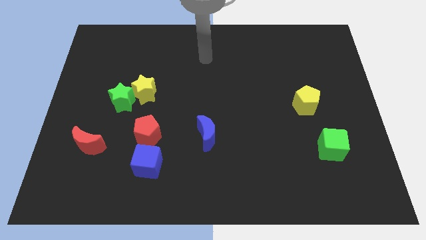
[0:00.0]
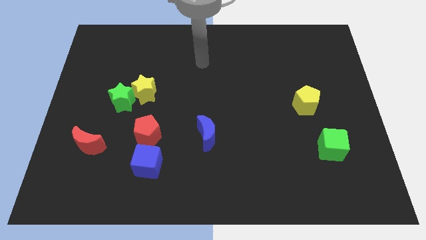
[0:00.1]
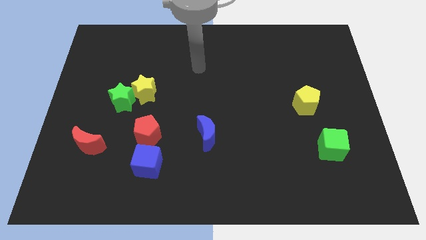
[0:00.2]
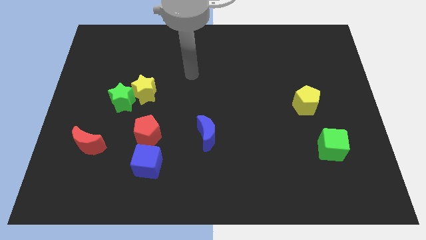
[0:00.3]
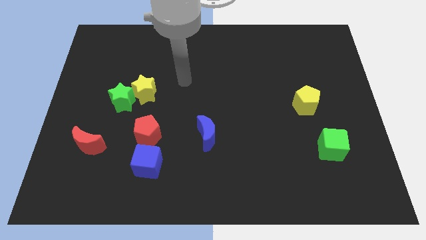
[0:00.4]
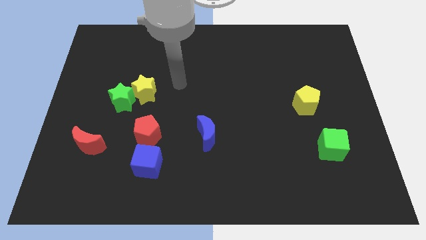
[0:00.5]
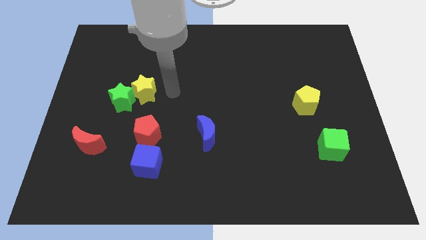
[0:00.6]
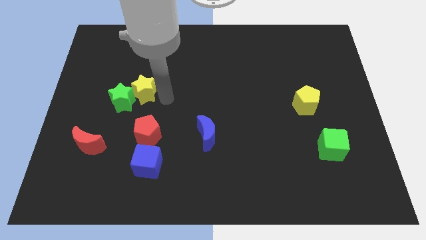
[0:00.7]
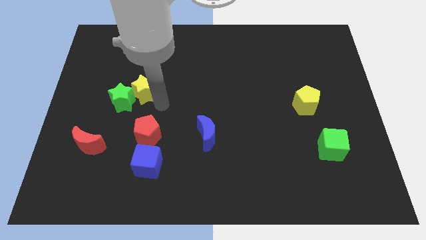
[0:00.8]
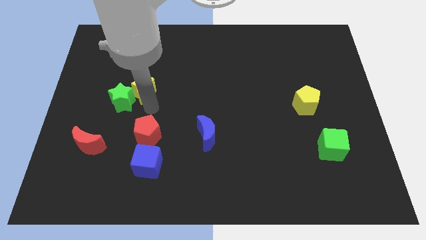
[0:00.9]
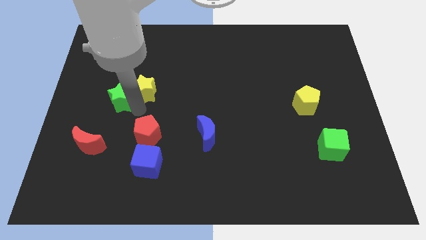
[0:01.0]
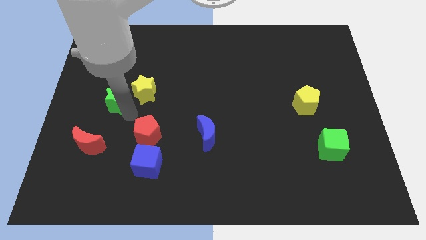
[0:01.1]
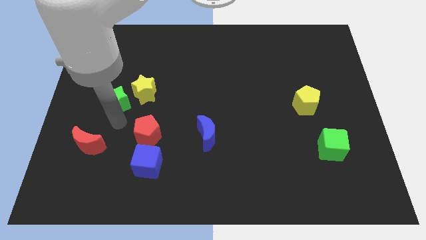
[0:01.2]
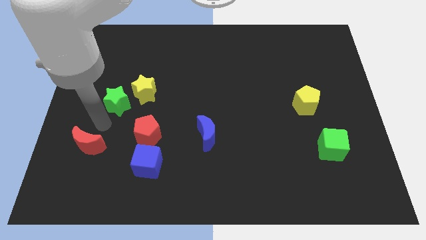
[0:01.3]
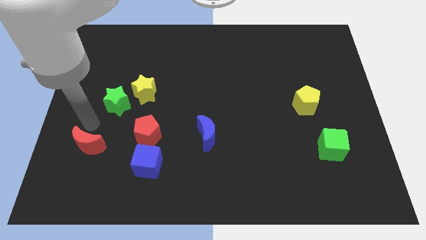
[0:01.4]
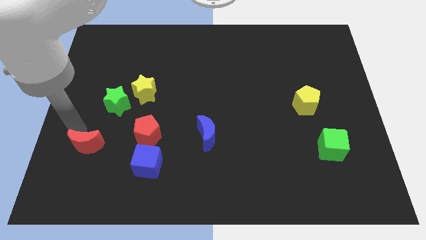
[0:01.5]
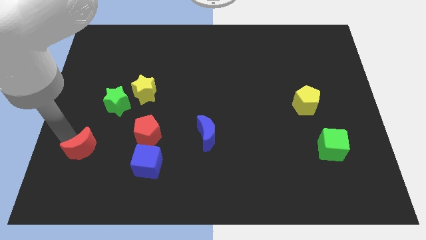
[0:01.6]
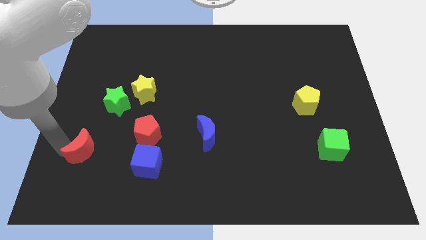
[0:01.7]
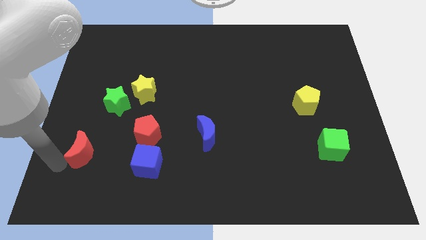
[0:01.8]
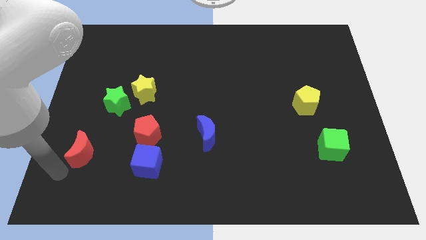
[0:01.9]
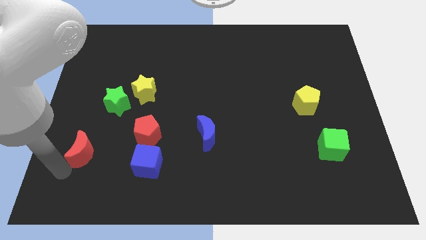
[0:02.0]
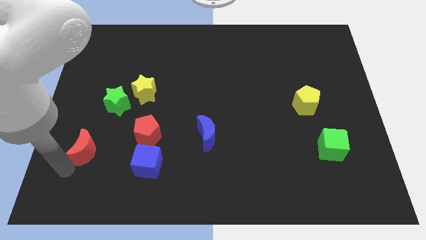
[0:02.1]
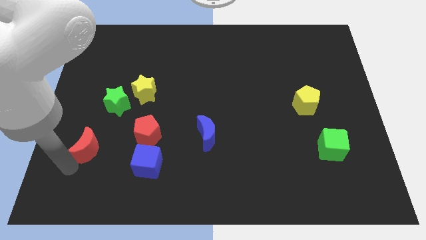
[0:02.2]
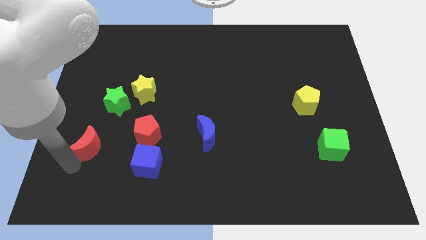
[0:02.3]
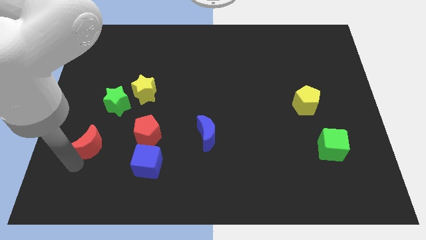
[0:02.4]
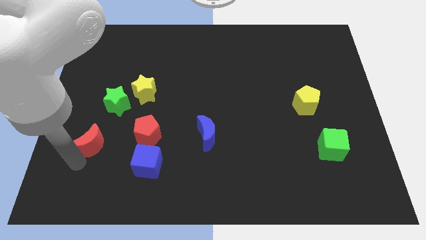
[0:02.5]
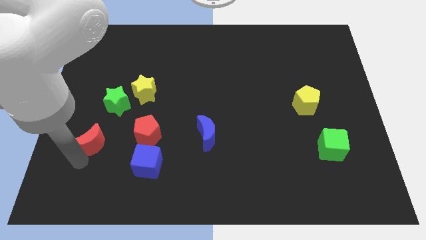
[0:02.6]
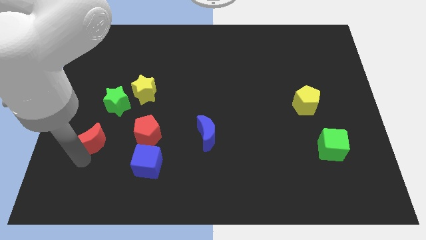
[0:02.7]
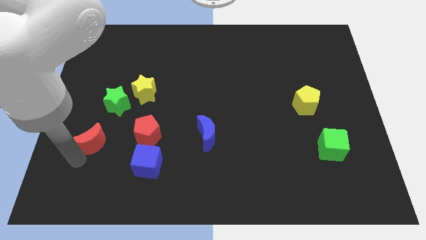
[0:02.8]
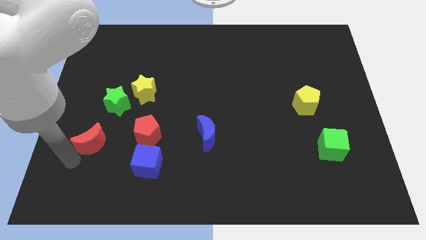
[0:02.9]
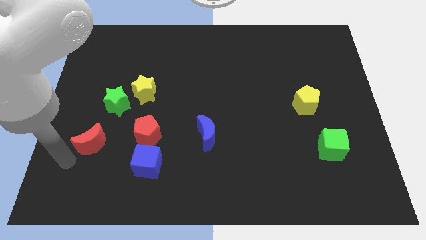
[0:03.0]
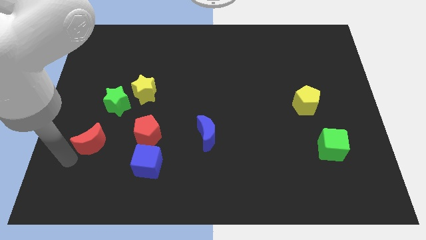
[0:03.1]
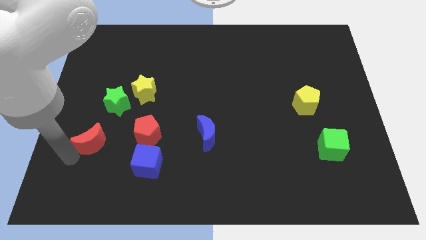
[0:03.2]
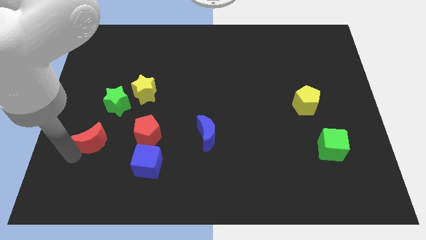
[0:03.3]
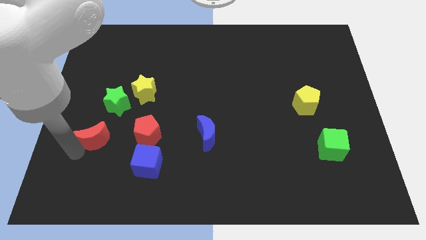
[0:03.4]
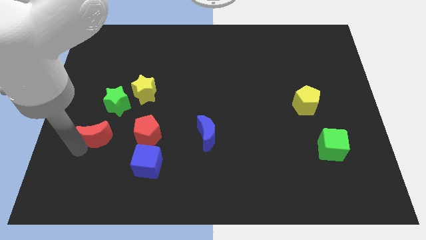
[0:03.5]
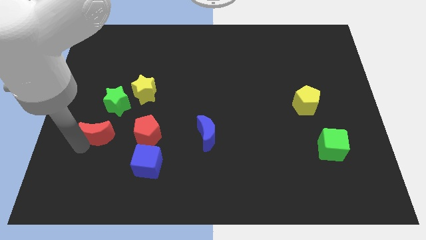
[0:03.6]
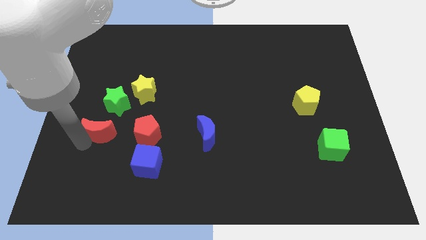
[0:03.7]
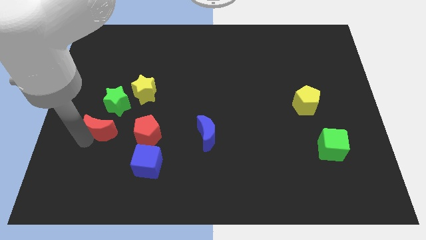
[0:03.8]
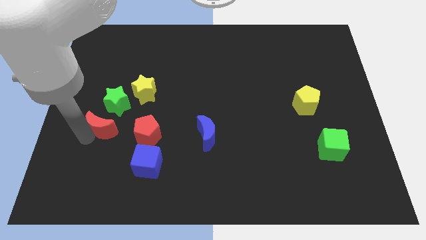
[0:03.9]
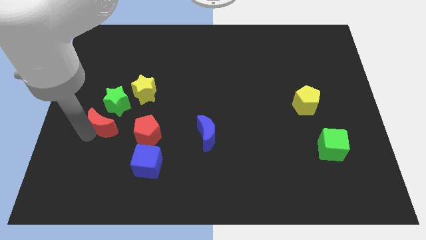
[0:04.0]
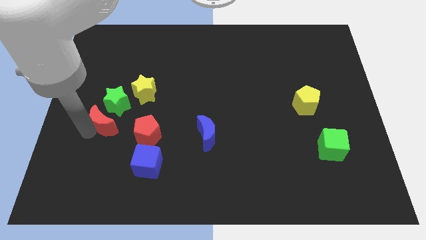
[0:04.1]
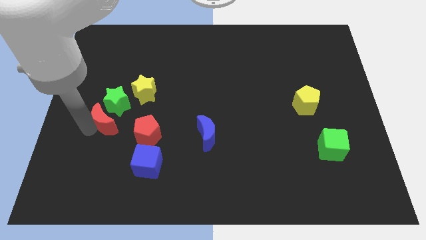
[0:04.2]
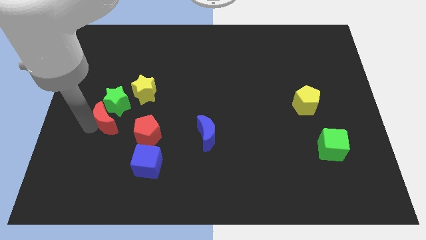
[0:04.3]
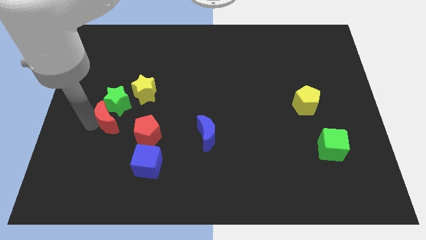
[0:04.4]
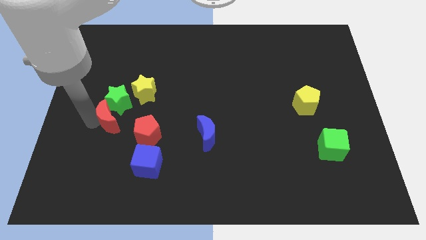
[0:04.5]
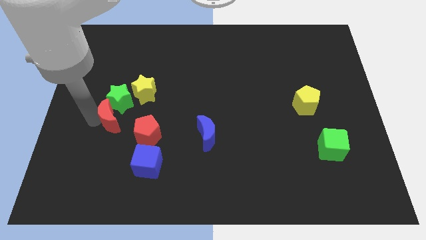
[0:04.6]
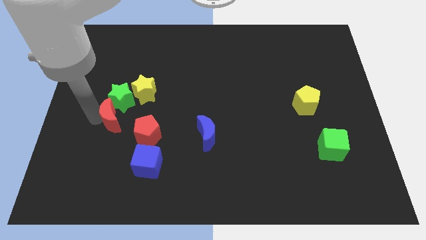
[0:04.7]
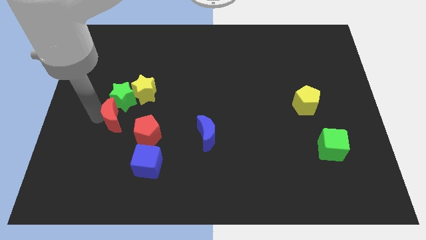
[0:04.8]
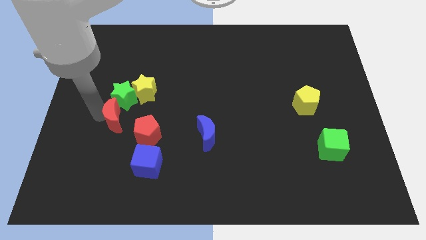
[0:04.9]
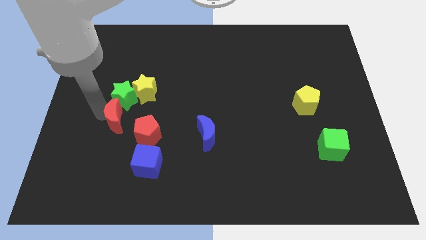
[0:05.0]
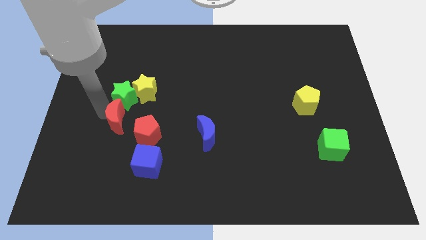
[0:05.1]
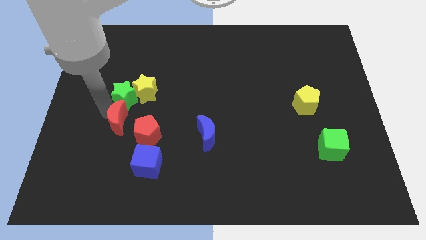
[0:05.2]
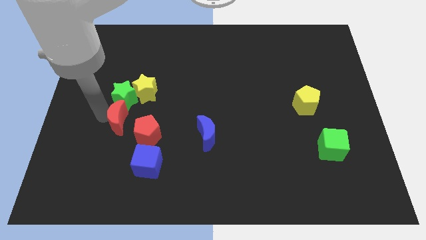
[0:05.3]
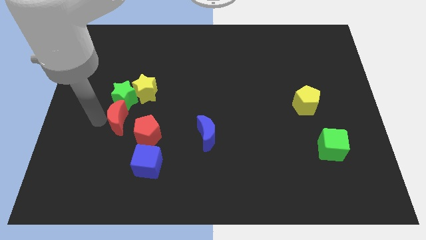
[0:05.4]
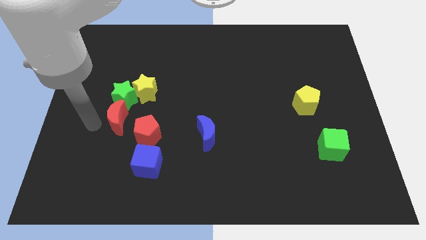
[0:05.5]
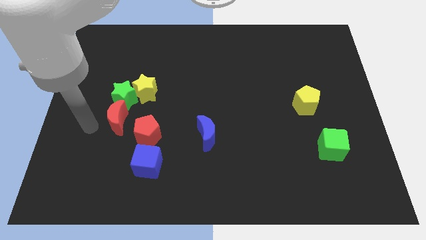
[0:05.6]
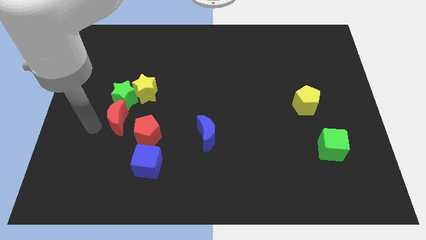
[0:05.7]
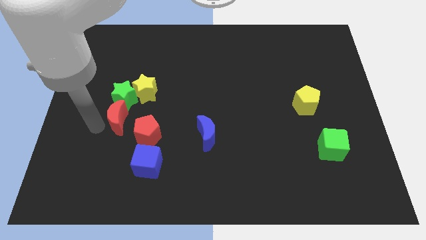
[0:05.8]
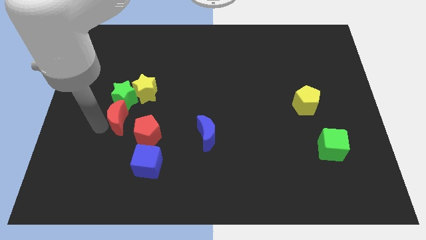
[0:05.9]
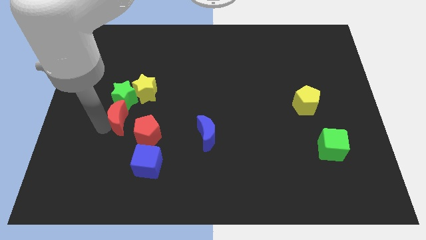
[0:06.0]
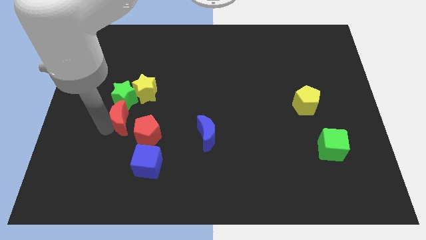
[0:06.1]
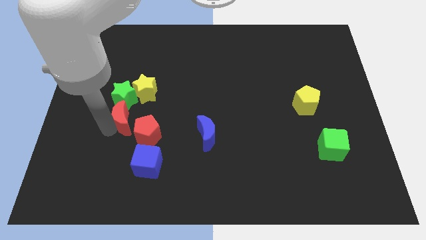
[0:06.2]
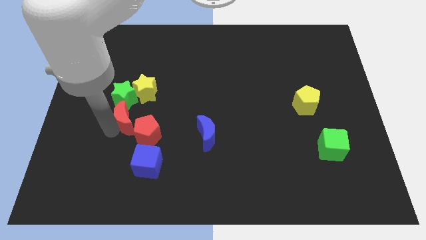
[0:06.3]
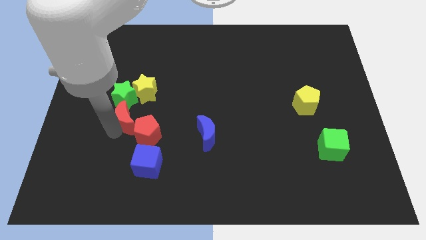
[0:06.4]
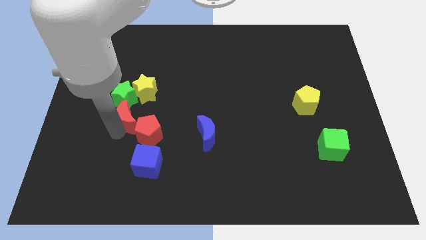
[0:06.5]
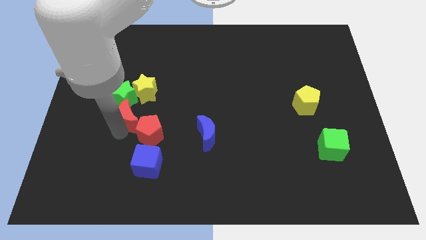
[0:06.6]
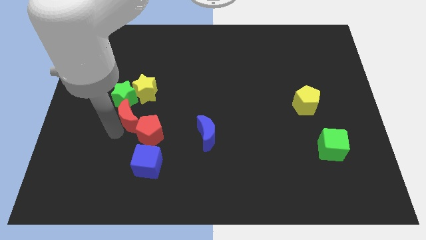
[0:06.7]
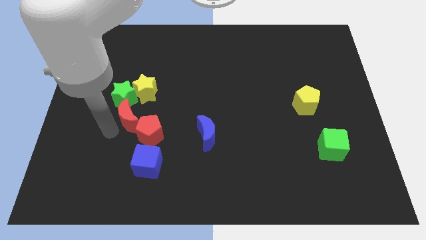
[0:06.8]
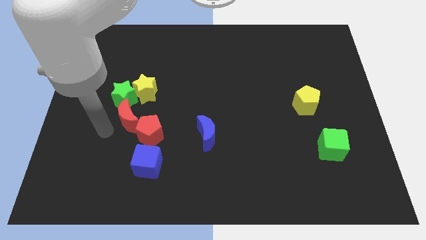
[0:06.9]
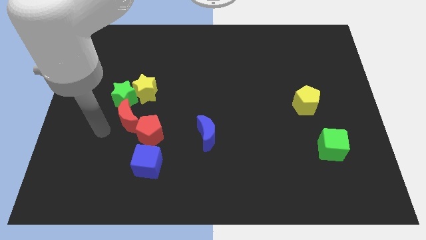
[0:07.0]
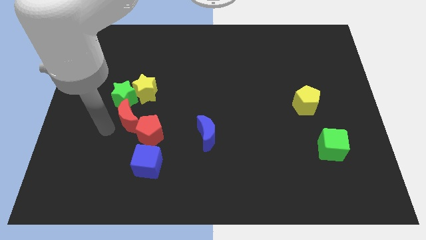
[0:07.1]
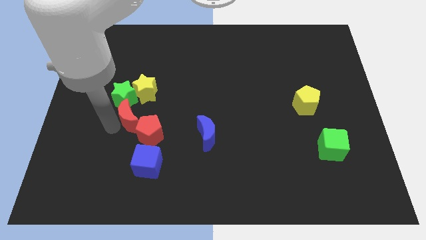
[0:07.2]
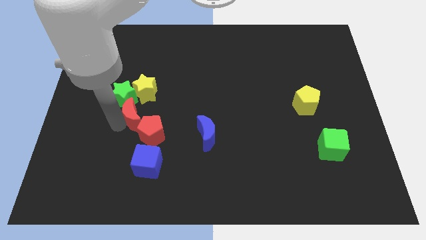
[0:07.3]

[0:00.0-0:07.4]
slide the red moon above the red pentagon

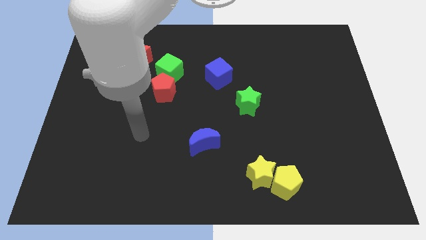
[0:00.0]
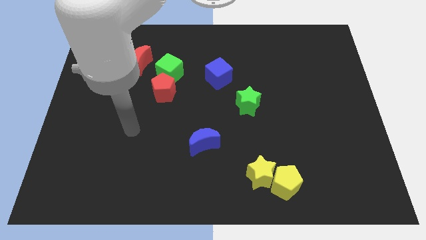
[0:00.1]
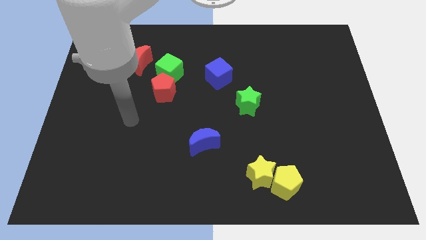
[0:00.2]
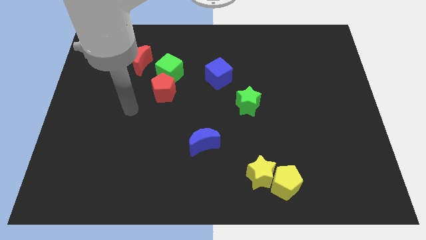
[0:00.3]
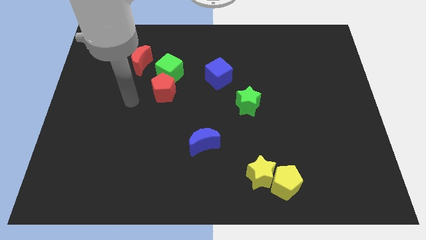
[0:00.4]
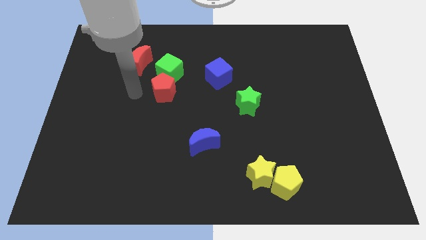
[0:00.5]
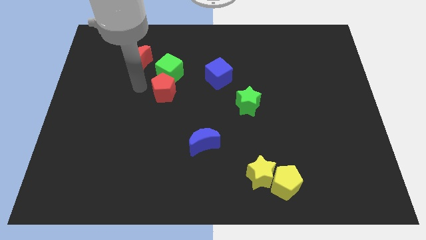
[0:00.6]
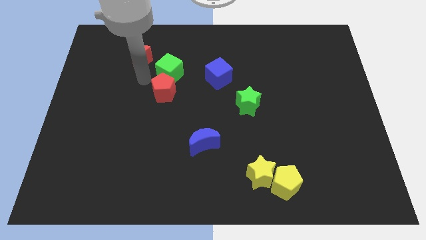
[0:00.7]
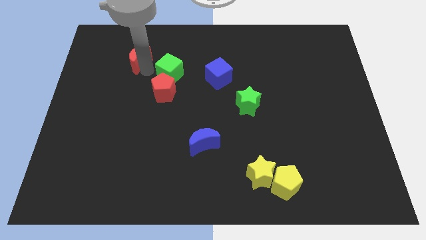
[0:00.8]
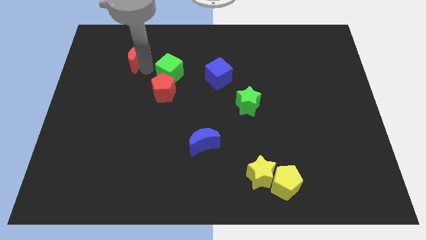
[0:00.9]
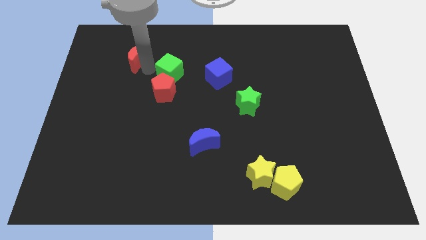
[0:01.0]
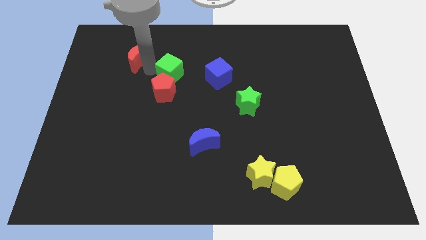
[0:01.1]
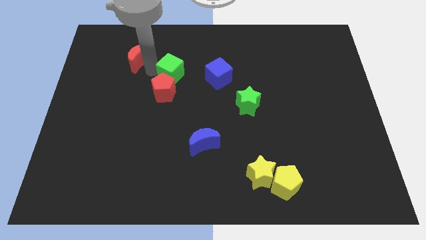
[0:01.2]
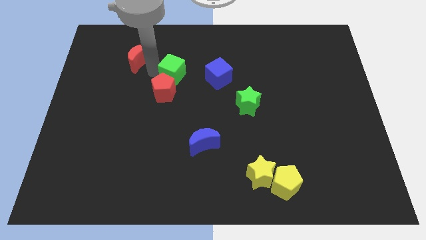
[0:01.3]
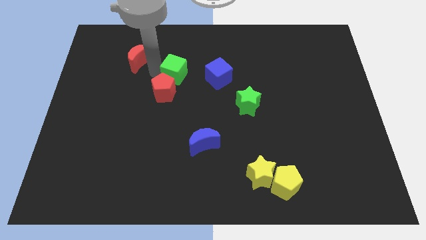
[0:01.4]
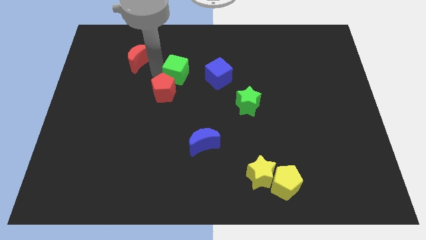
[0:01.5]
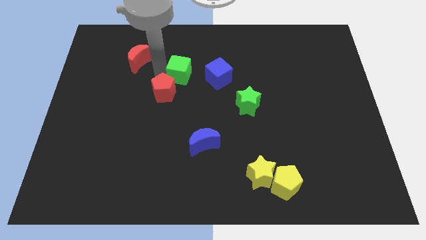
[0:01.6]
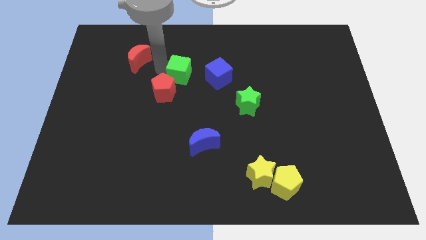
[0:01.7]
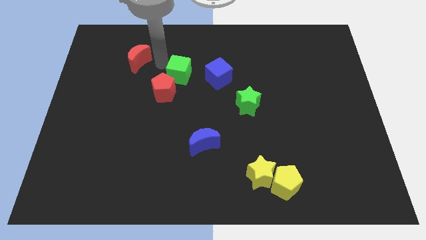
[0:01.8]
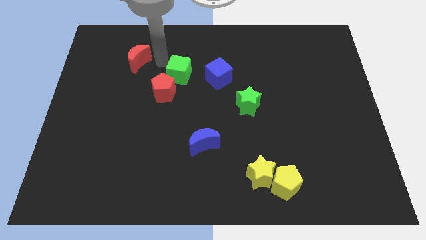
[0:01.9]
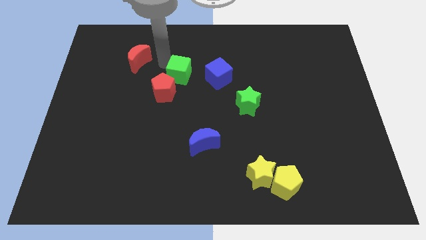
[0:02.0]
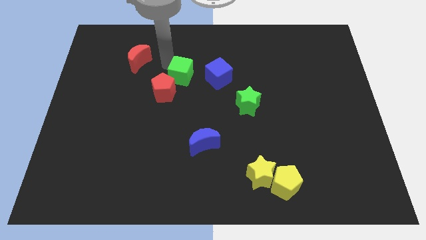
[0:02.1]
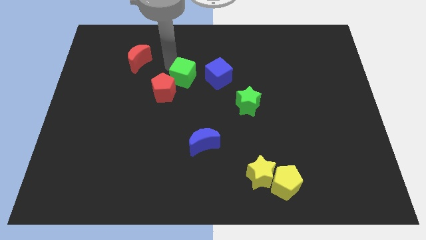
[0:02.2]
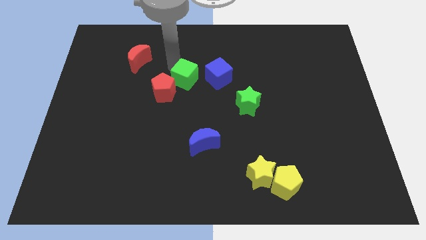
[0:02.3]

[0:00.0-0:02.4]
put the green cube to the right side of the red pentagon
